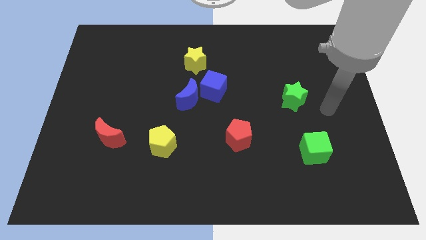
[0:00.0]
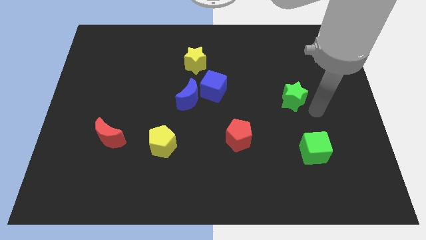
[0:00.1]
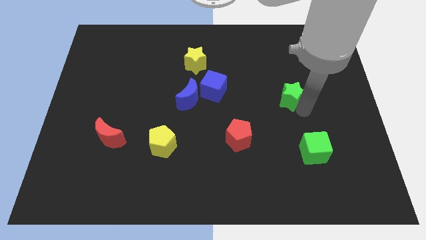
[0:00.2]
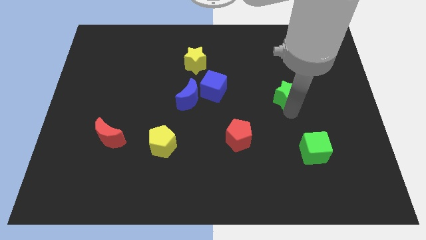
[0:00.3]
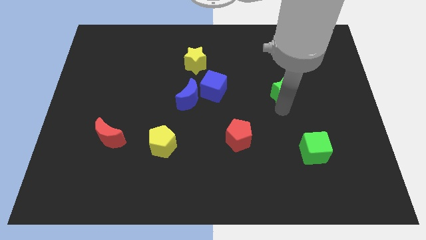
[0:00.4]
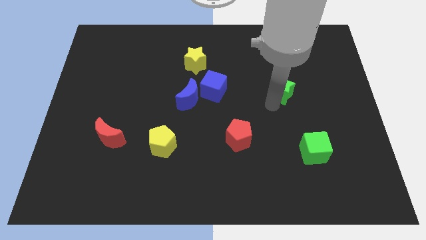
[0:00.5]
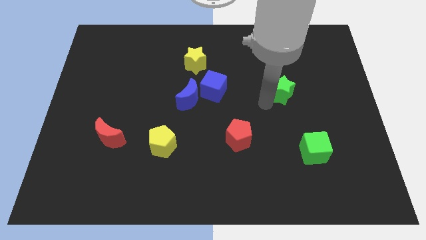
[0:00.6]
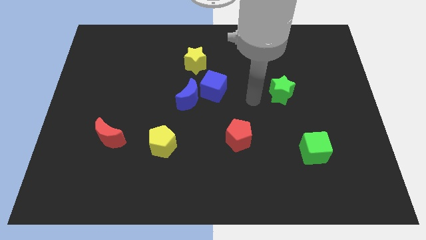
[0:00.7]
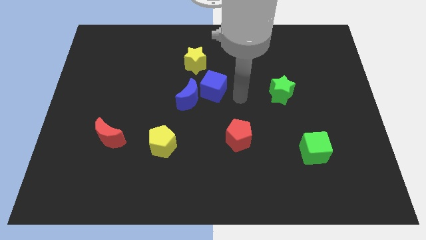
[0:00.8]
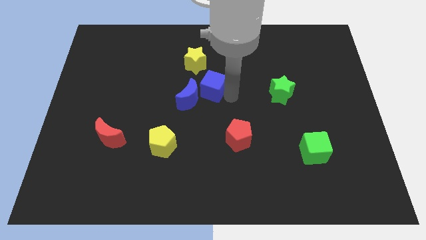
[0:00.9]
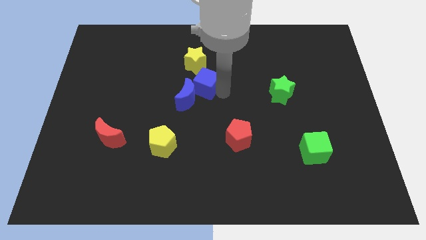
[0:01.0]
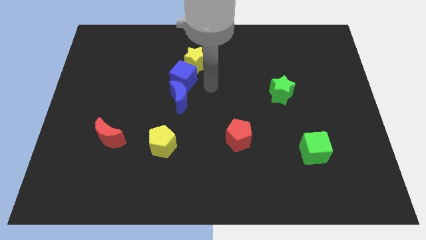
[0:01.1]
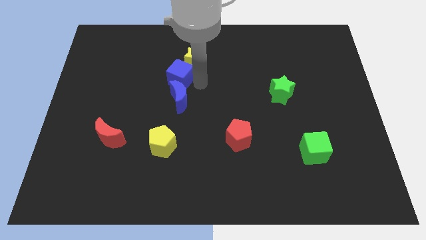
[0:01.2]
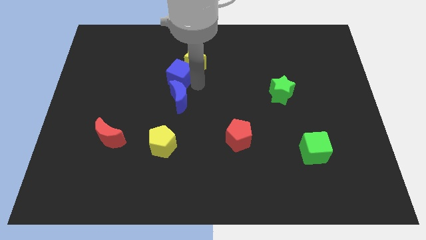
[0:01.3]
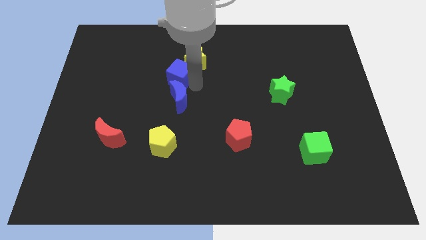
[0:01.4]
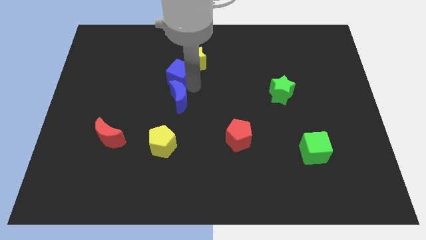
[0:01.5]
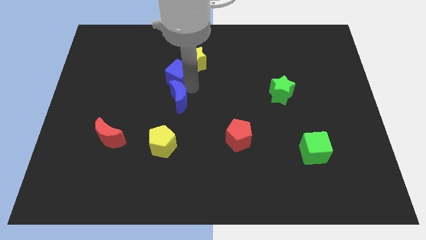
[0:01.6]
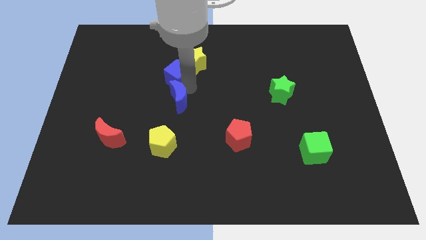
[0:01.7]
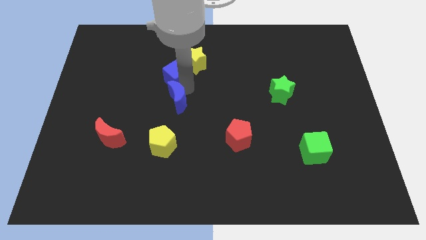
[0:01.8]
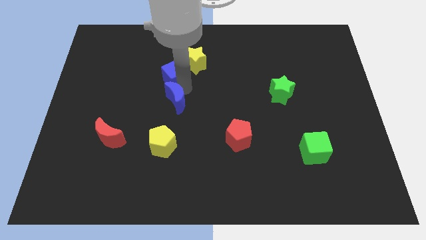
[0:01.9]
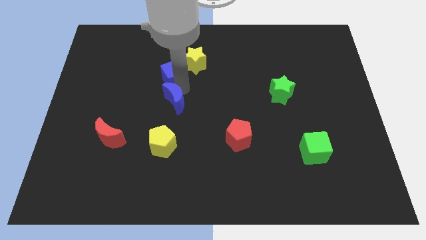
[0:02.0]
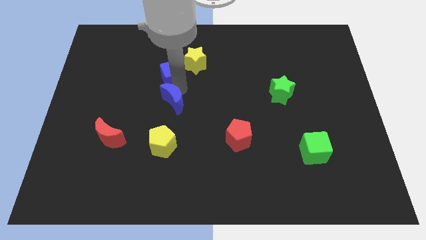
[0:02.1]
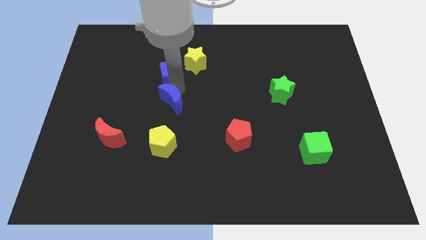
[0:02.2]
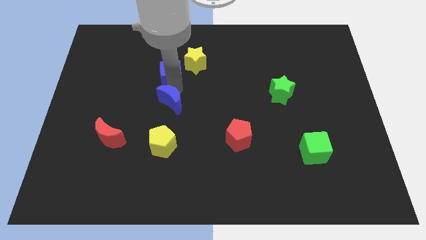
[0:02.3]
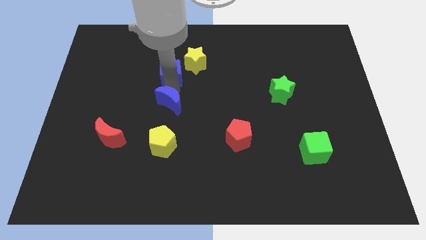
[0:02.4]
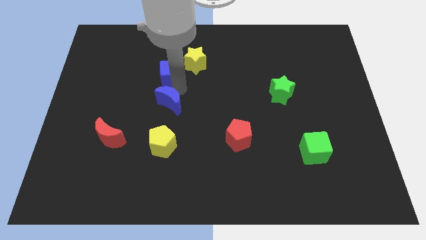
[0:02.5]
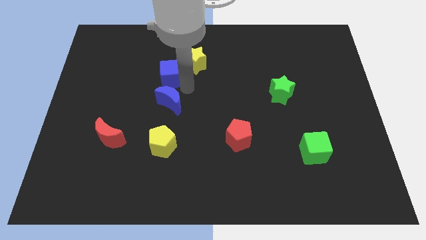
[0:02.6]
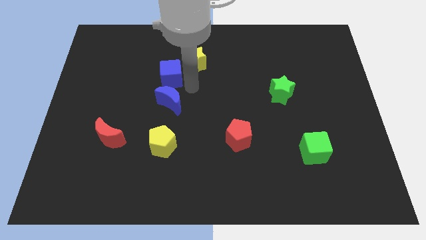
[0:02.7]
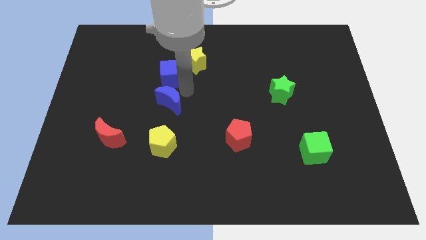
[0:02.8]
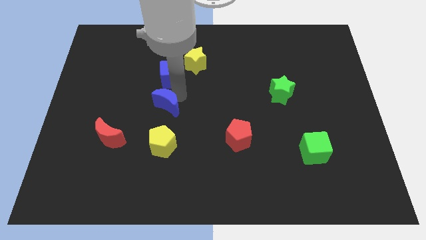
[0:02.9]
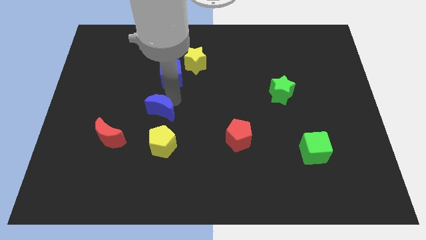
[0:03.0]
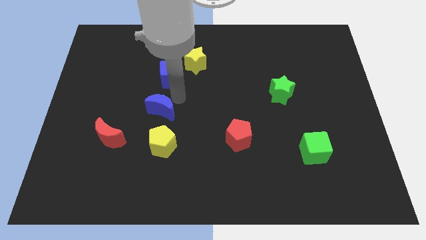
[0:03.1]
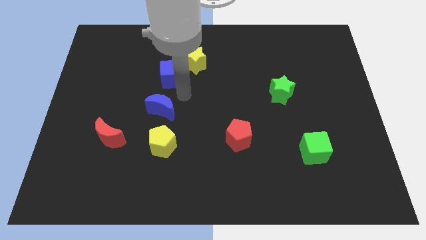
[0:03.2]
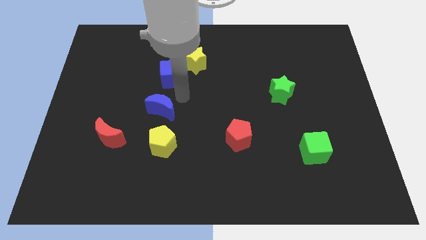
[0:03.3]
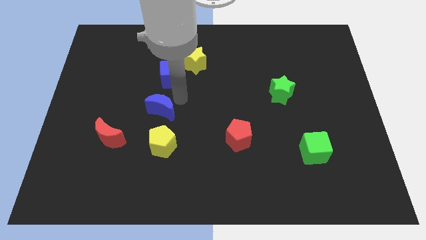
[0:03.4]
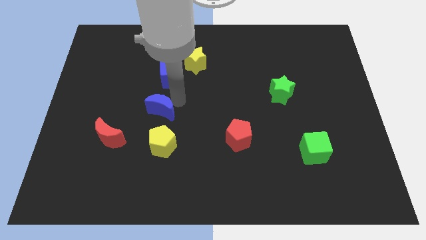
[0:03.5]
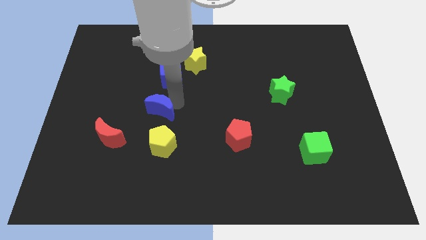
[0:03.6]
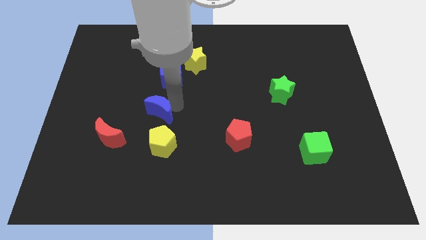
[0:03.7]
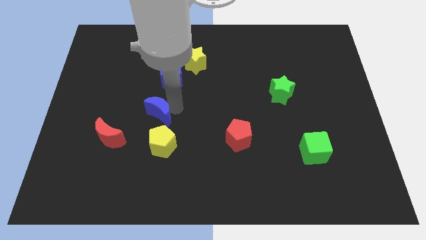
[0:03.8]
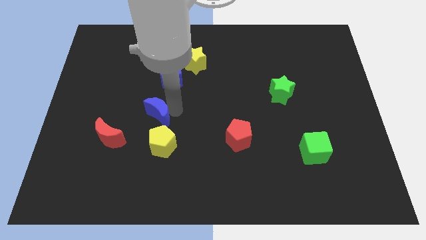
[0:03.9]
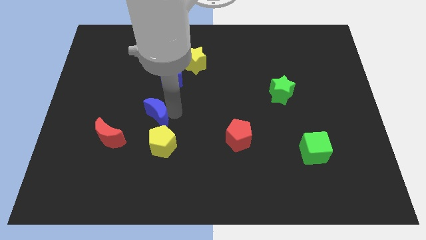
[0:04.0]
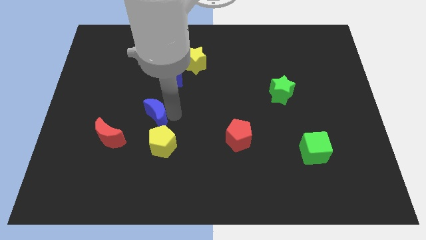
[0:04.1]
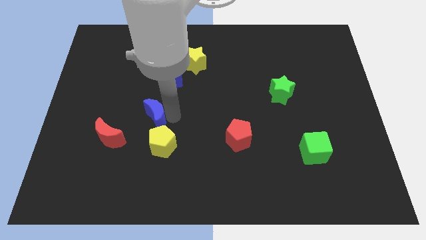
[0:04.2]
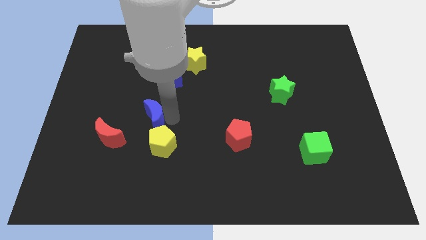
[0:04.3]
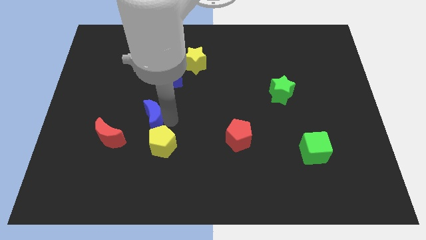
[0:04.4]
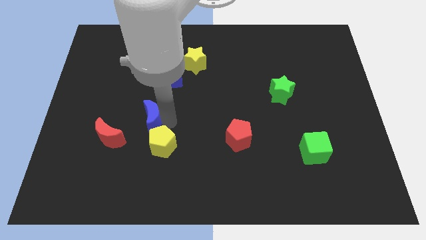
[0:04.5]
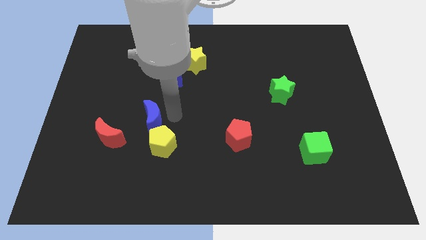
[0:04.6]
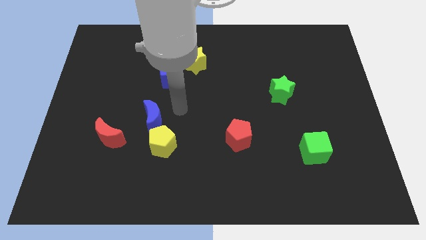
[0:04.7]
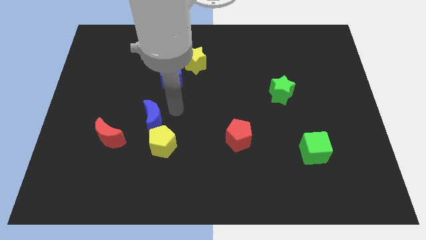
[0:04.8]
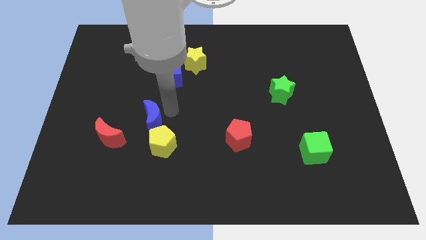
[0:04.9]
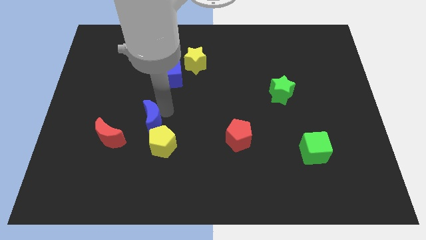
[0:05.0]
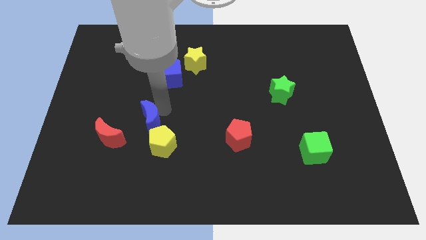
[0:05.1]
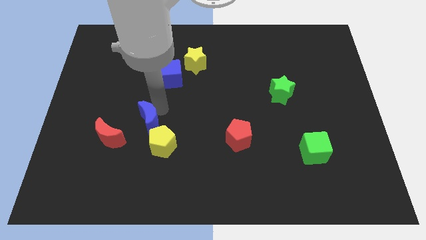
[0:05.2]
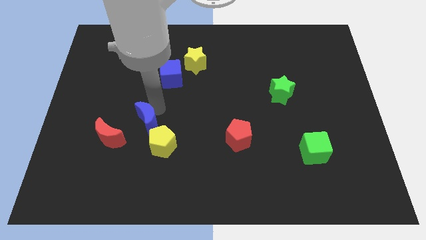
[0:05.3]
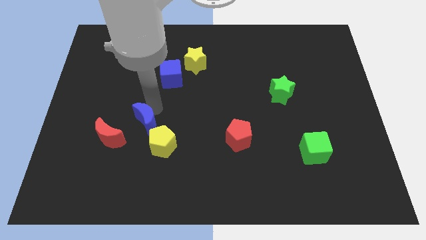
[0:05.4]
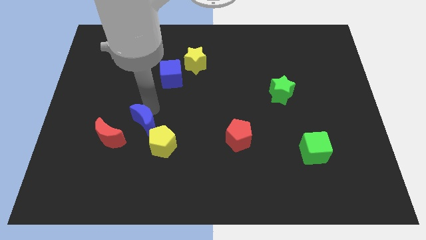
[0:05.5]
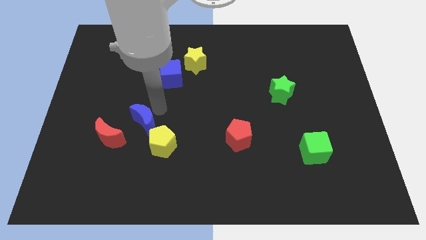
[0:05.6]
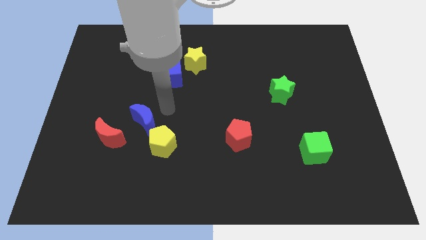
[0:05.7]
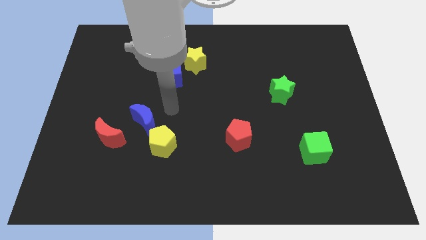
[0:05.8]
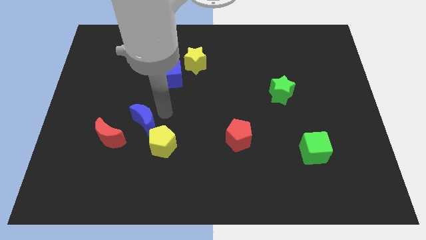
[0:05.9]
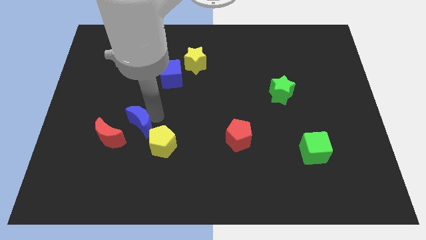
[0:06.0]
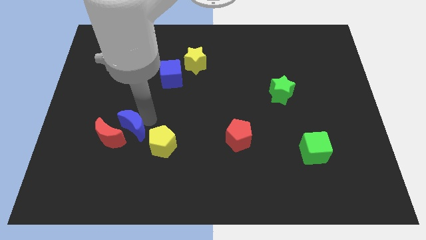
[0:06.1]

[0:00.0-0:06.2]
slide the blue moon towards the red moon

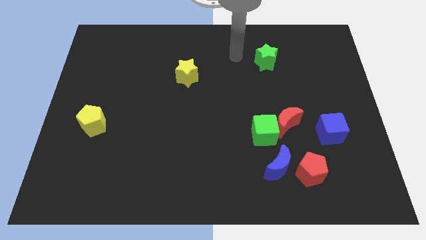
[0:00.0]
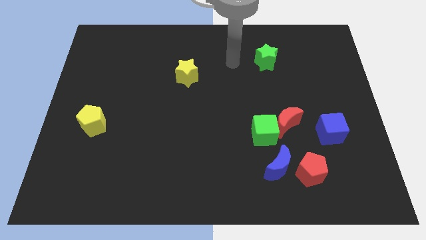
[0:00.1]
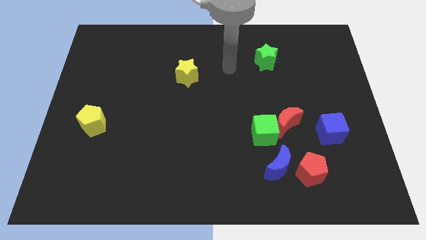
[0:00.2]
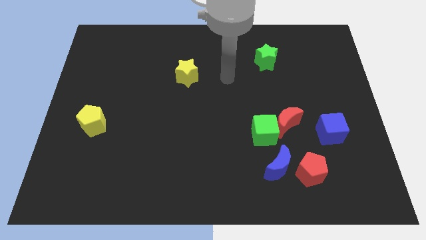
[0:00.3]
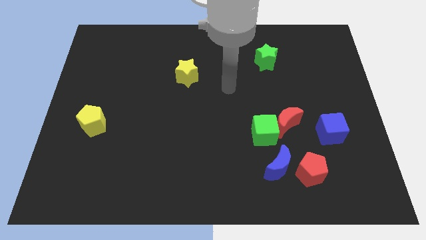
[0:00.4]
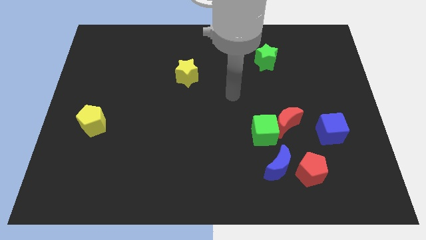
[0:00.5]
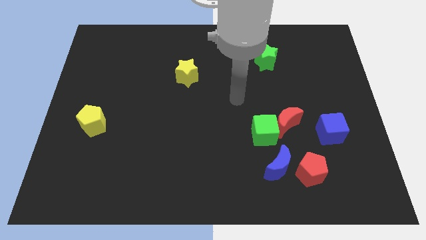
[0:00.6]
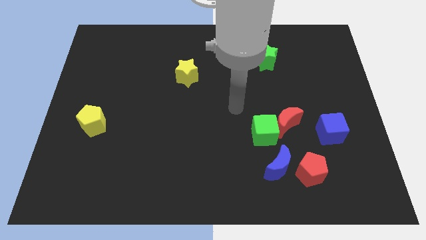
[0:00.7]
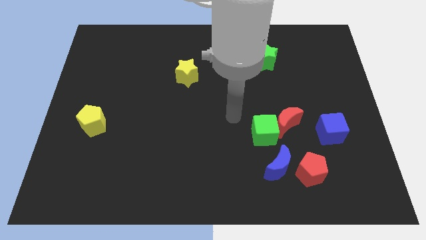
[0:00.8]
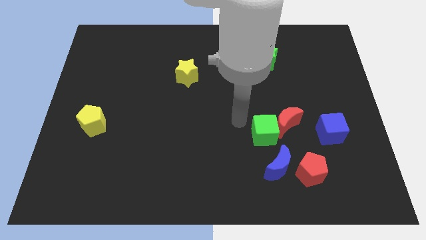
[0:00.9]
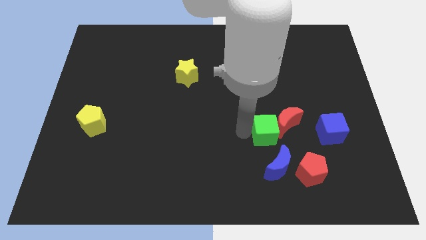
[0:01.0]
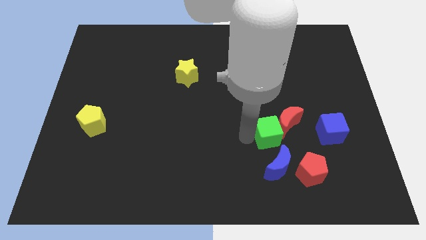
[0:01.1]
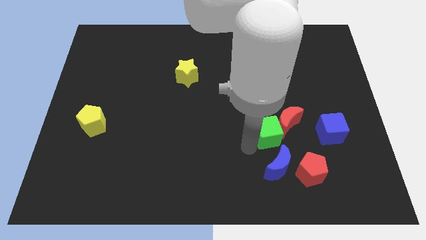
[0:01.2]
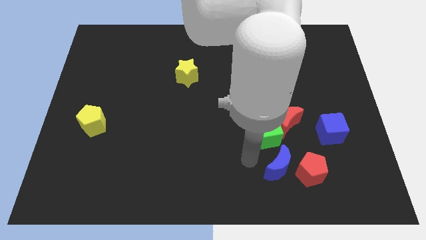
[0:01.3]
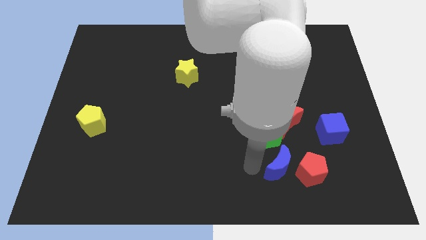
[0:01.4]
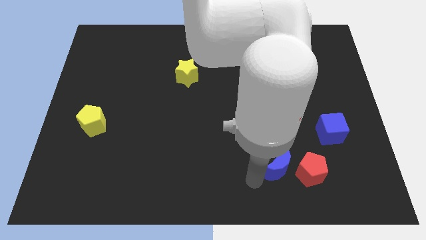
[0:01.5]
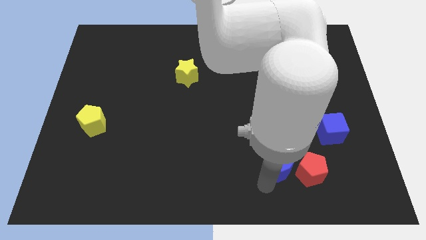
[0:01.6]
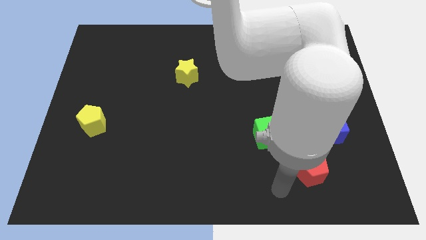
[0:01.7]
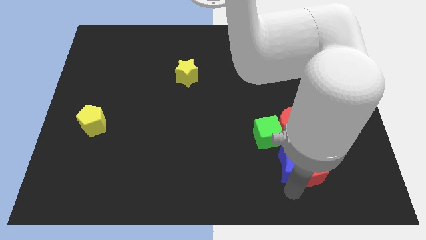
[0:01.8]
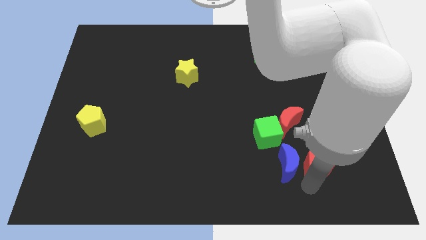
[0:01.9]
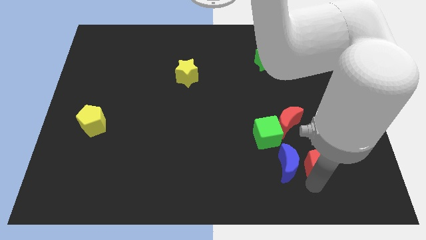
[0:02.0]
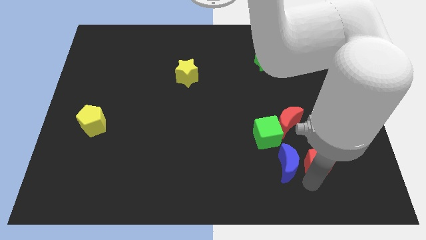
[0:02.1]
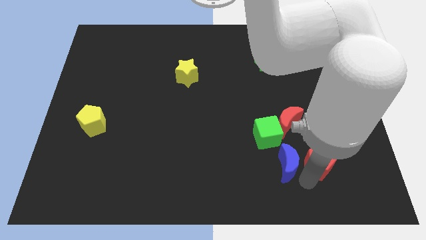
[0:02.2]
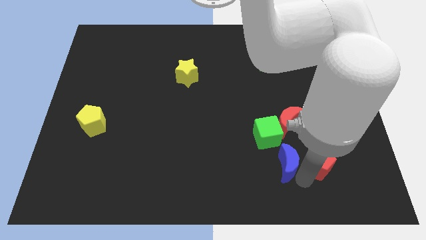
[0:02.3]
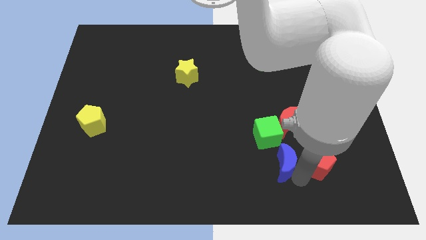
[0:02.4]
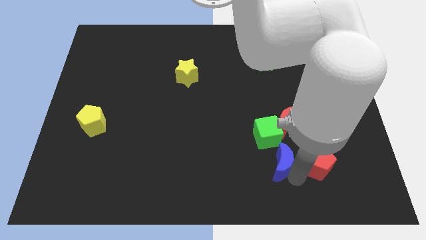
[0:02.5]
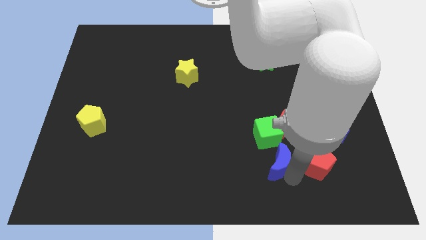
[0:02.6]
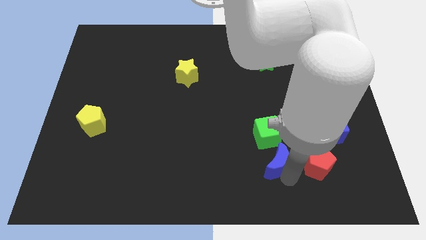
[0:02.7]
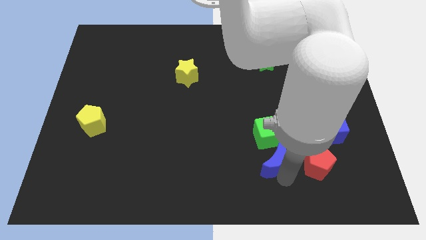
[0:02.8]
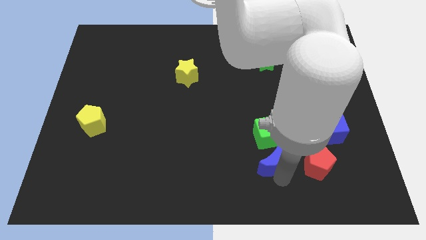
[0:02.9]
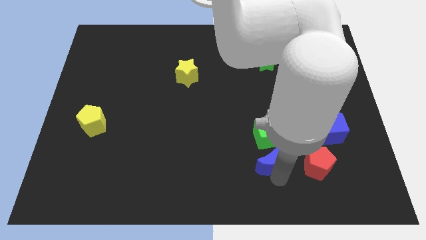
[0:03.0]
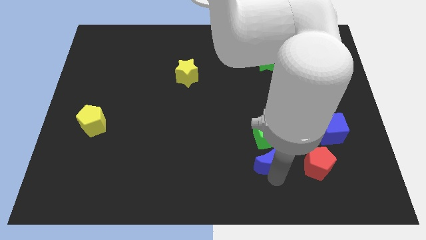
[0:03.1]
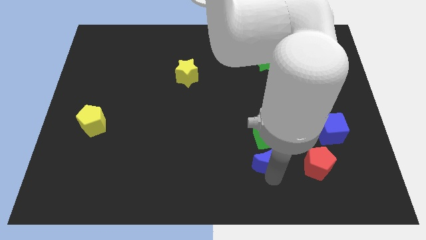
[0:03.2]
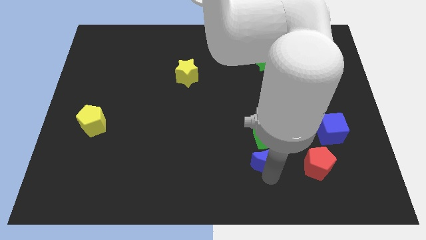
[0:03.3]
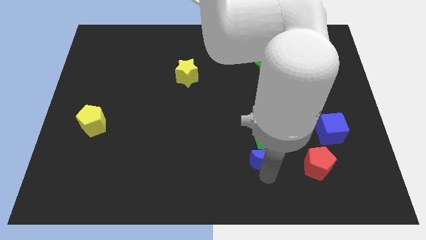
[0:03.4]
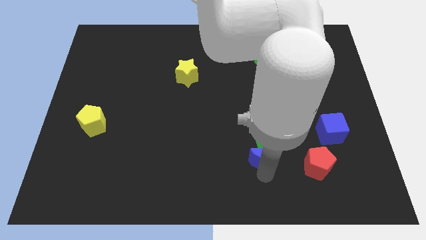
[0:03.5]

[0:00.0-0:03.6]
slide the blue moon towards the green cube
